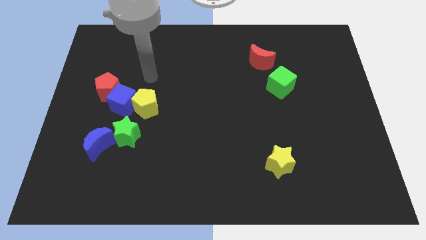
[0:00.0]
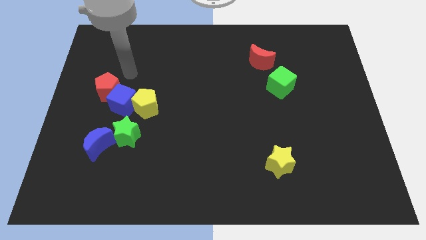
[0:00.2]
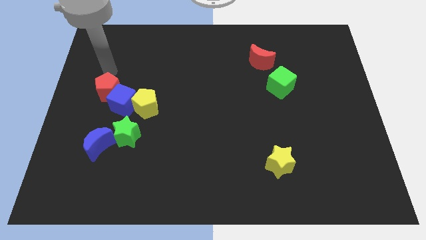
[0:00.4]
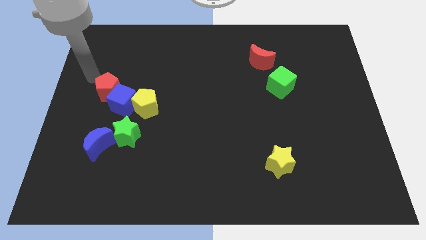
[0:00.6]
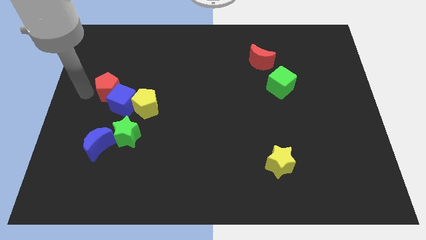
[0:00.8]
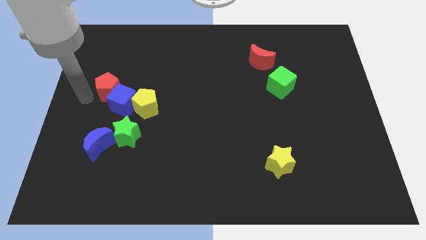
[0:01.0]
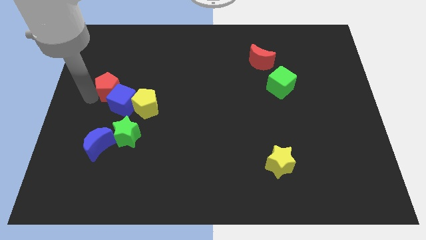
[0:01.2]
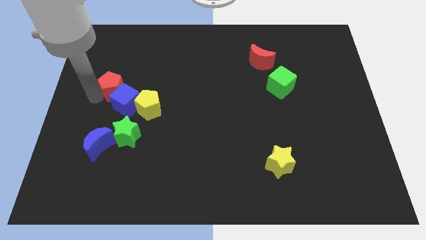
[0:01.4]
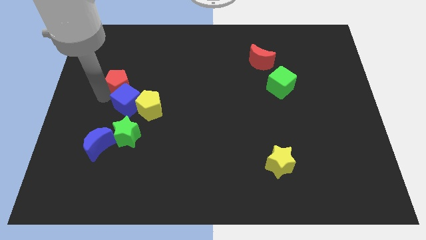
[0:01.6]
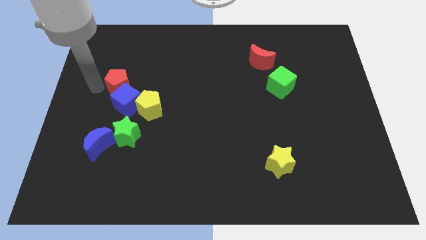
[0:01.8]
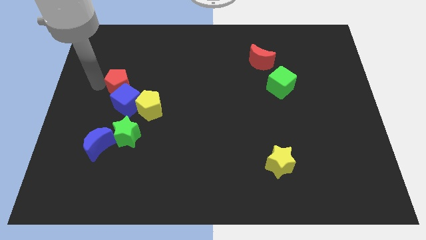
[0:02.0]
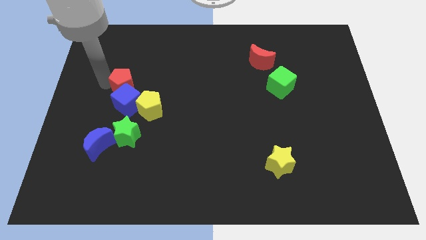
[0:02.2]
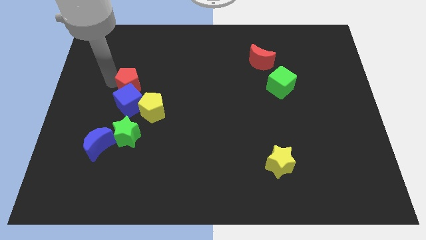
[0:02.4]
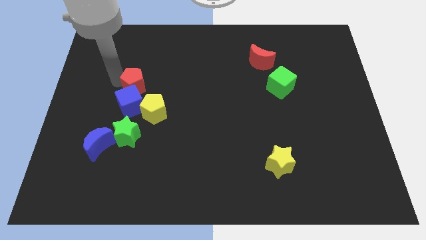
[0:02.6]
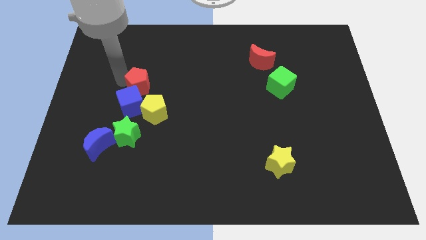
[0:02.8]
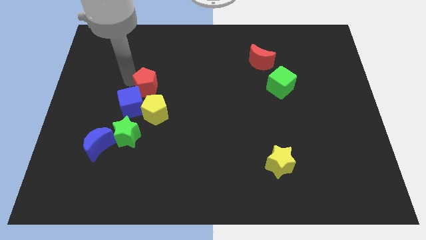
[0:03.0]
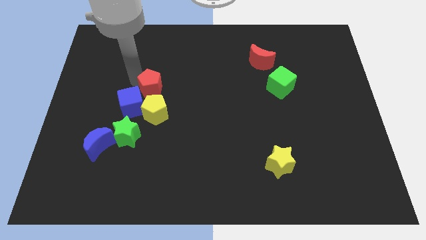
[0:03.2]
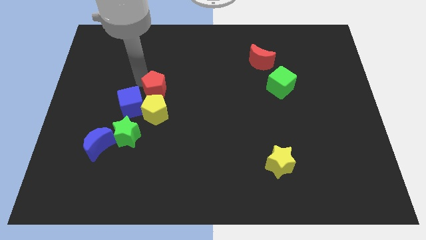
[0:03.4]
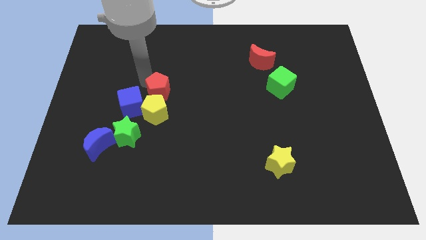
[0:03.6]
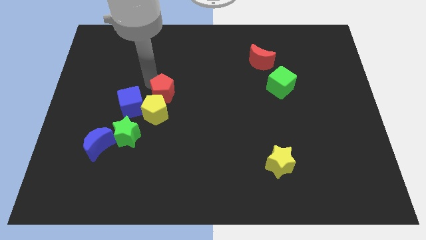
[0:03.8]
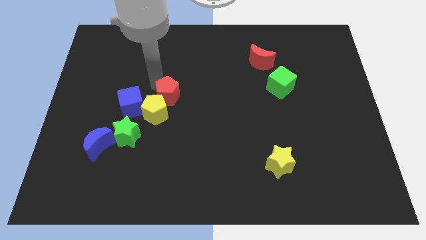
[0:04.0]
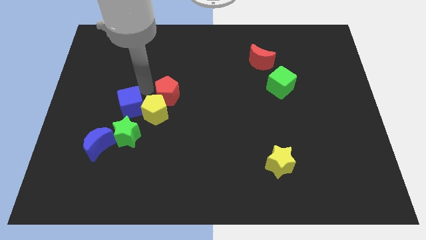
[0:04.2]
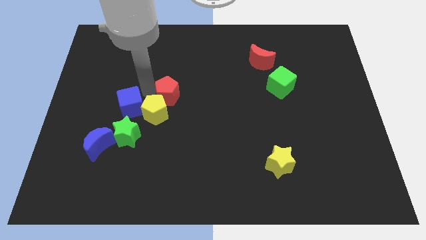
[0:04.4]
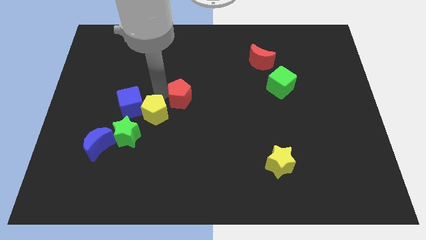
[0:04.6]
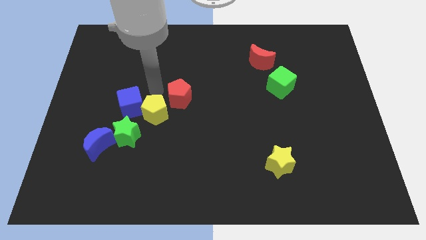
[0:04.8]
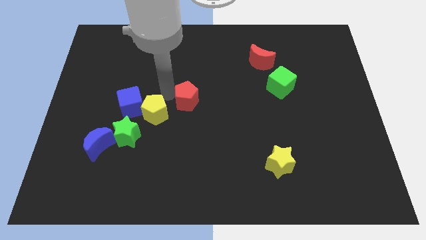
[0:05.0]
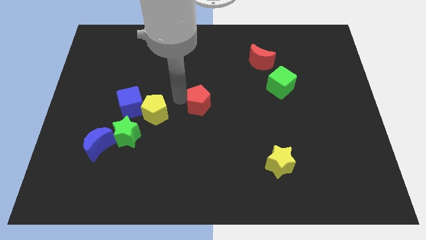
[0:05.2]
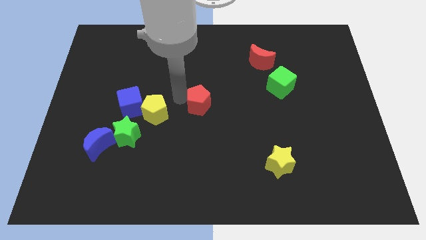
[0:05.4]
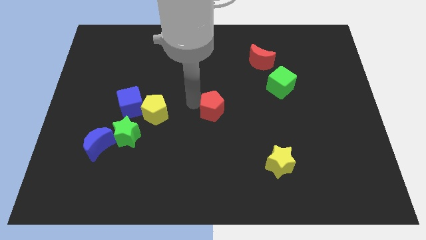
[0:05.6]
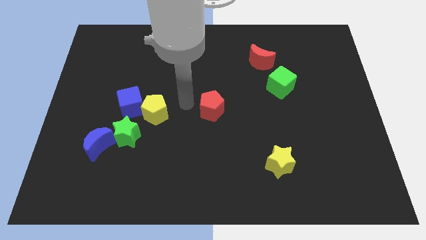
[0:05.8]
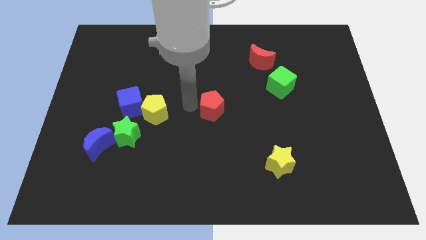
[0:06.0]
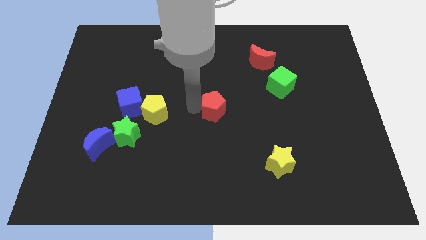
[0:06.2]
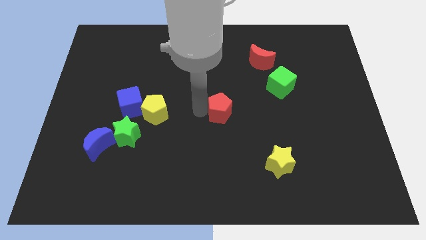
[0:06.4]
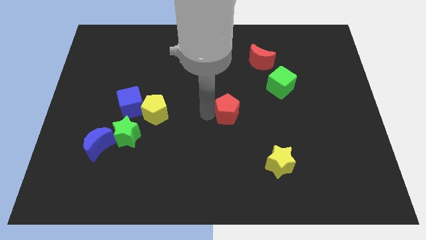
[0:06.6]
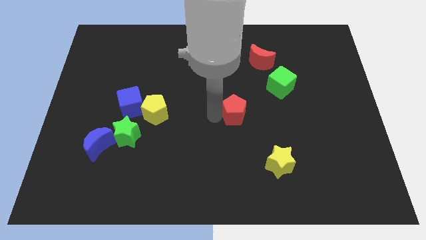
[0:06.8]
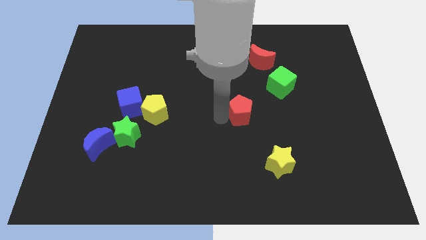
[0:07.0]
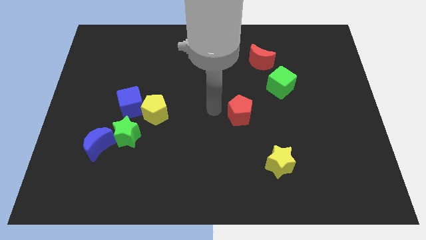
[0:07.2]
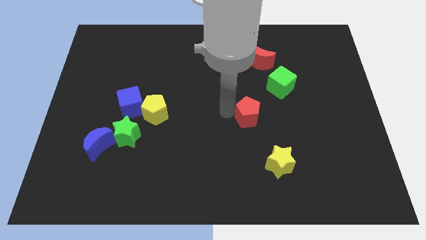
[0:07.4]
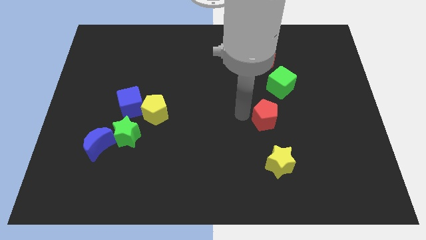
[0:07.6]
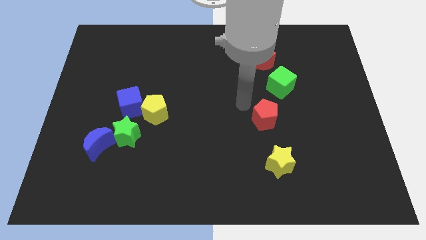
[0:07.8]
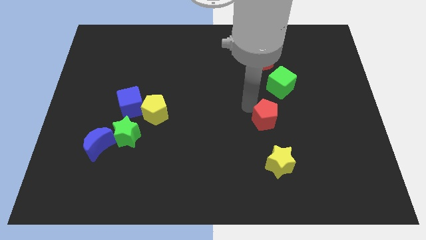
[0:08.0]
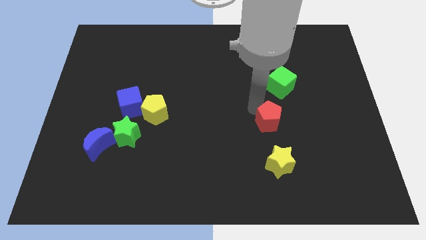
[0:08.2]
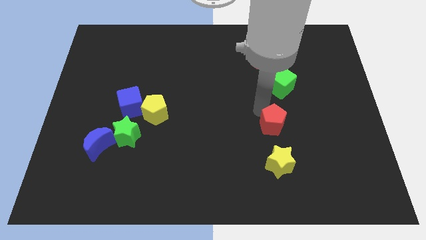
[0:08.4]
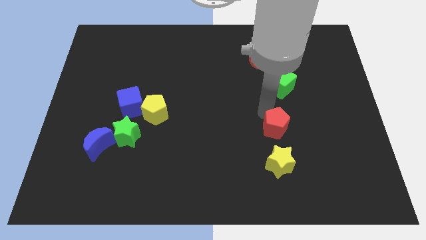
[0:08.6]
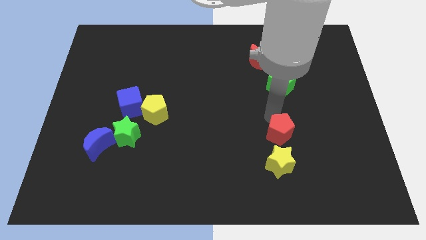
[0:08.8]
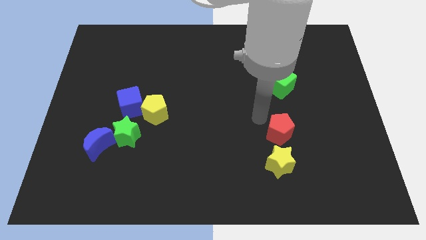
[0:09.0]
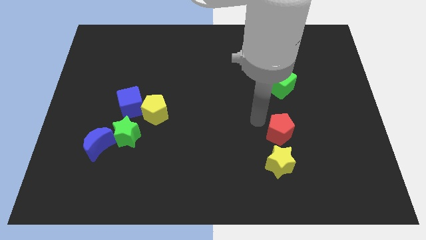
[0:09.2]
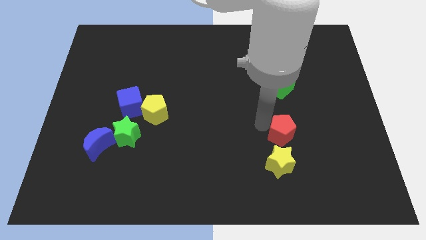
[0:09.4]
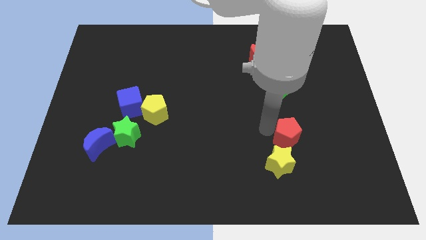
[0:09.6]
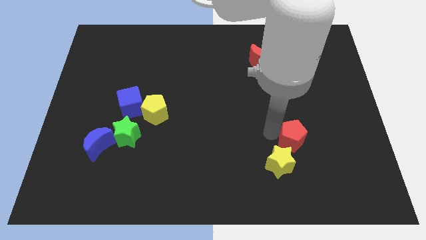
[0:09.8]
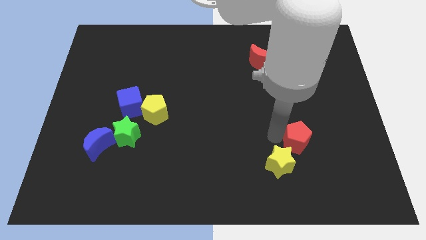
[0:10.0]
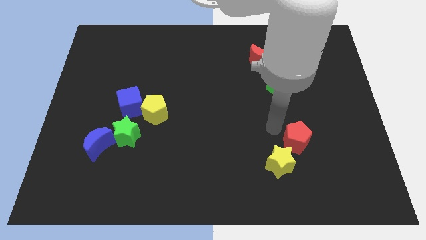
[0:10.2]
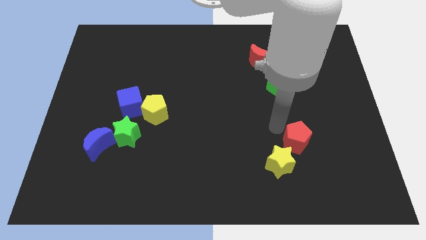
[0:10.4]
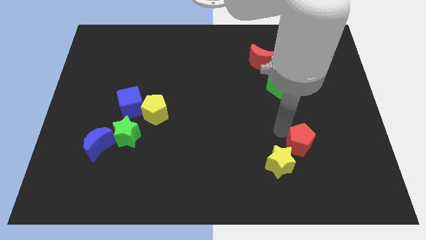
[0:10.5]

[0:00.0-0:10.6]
put the red pentagon to the right of the yellow star

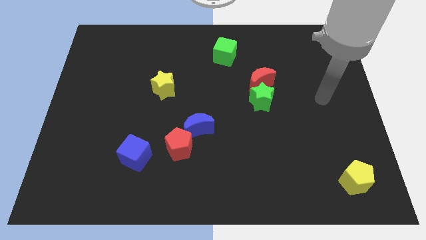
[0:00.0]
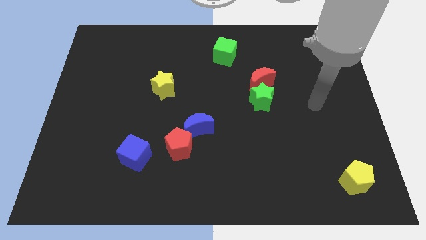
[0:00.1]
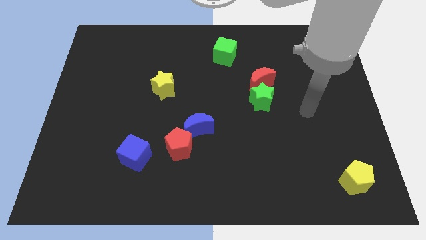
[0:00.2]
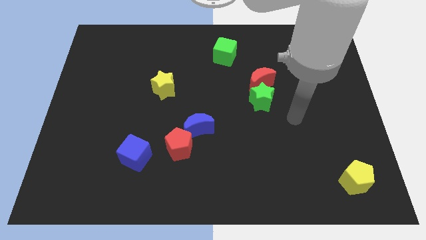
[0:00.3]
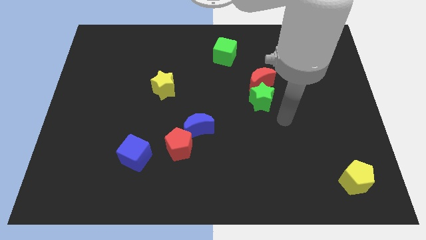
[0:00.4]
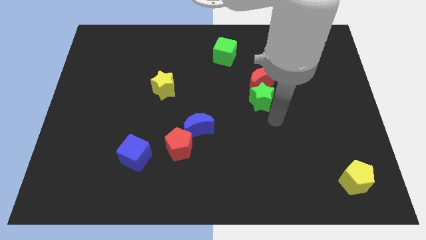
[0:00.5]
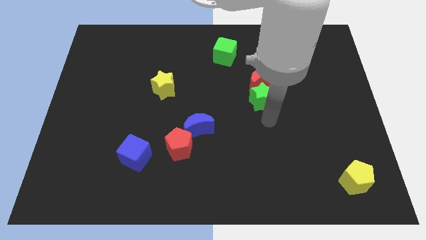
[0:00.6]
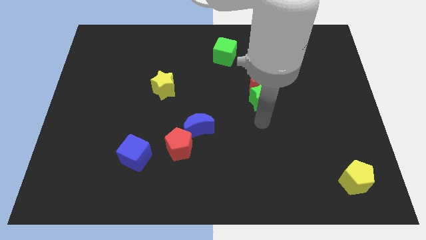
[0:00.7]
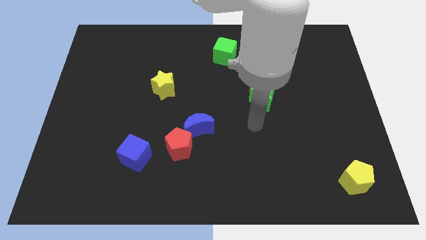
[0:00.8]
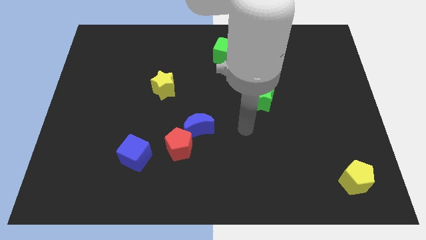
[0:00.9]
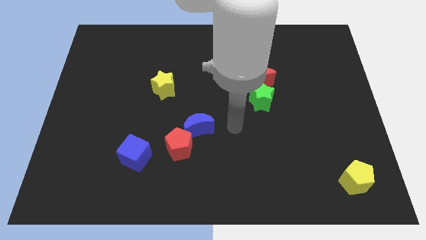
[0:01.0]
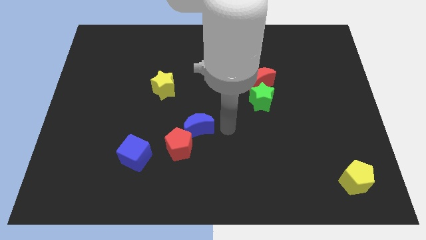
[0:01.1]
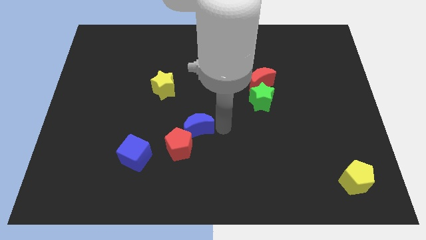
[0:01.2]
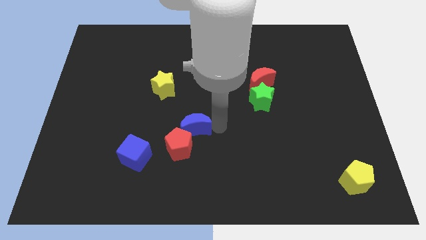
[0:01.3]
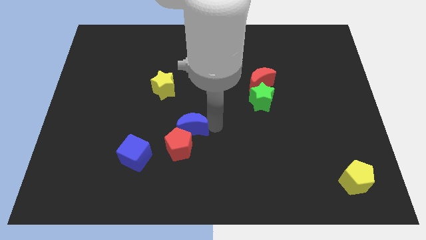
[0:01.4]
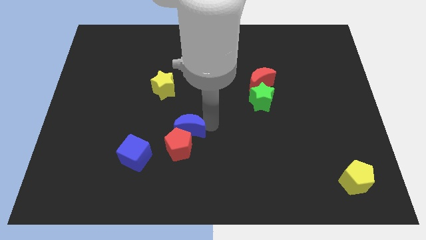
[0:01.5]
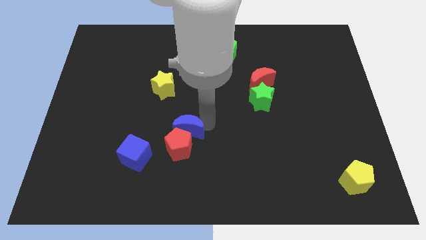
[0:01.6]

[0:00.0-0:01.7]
move the blue moon to the top left of the red pentagon

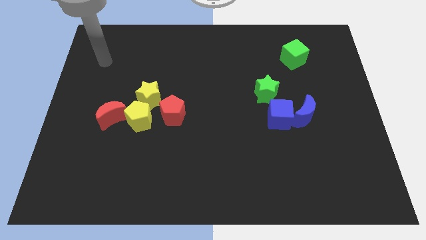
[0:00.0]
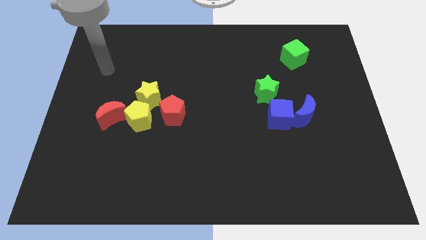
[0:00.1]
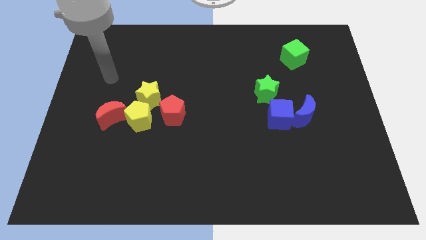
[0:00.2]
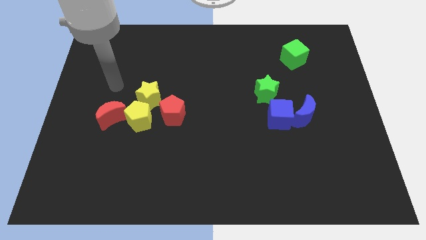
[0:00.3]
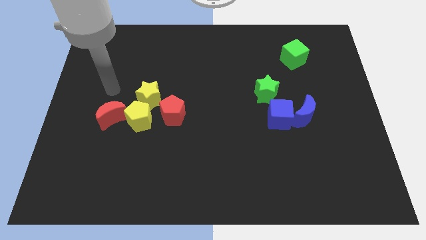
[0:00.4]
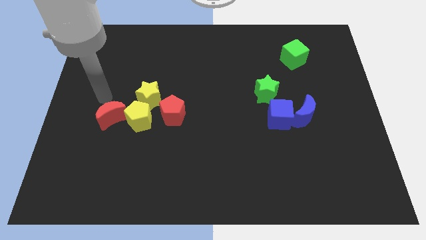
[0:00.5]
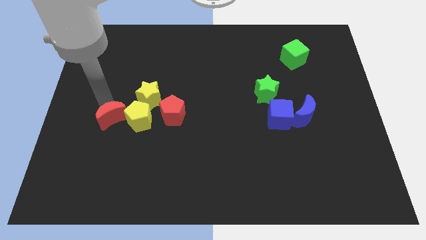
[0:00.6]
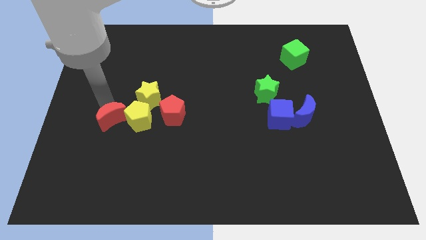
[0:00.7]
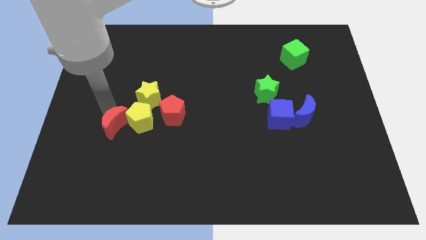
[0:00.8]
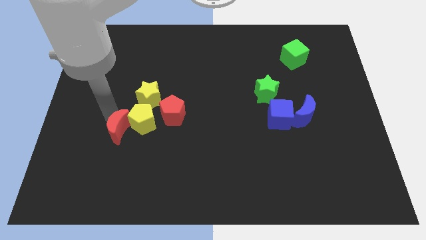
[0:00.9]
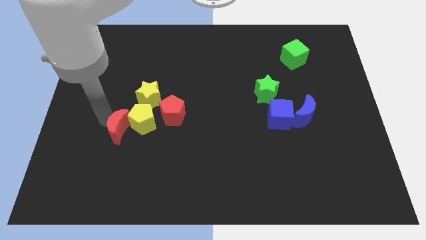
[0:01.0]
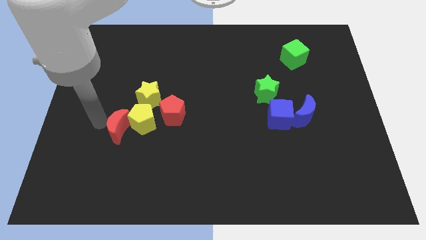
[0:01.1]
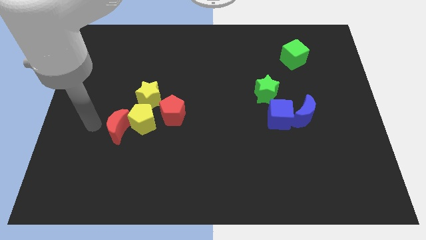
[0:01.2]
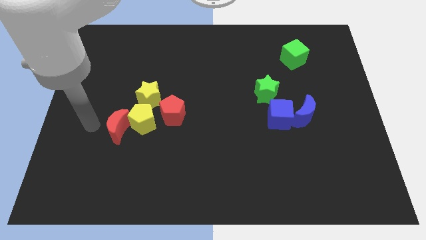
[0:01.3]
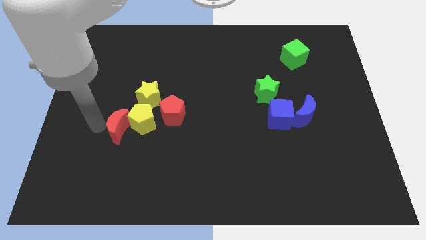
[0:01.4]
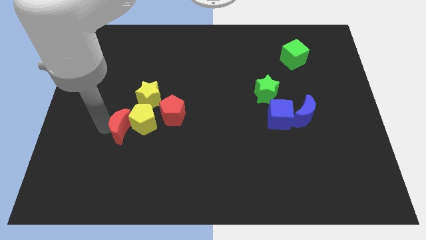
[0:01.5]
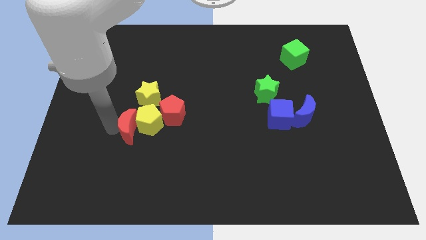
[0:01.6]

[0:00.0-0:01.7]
move the red moon diagonally down and to the left of the red pentagon
